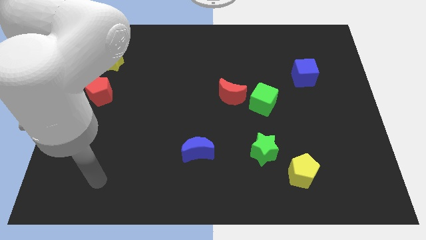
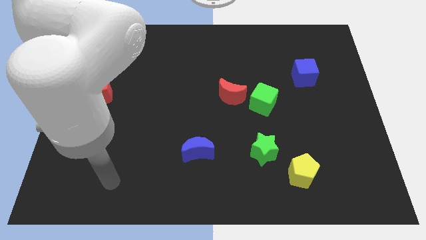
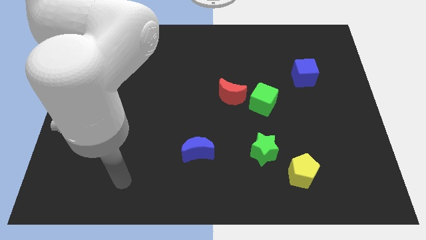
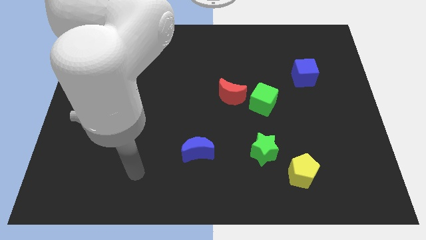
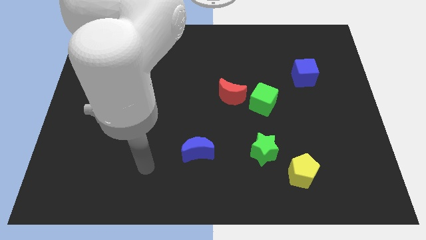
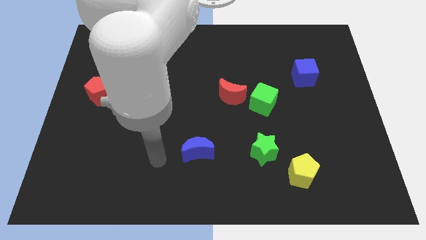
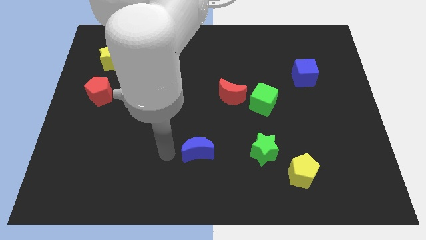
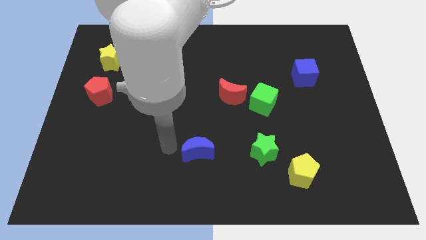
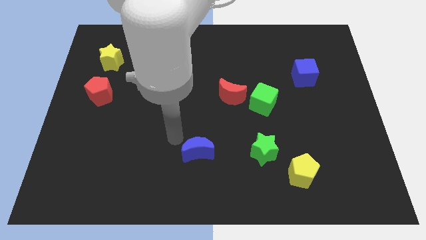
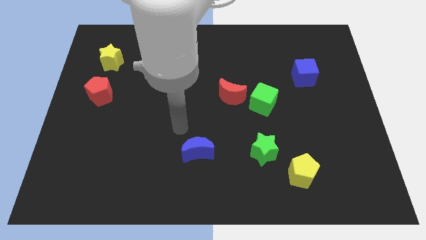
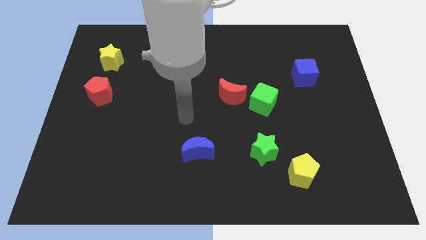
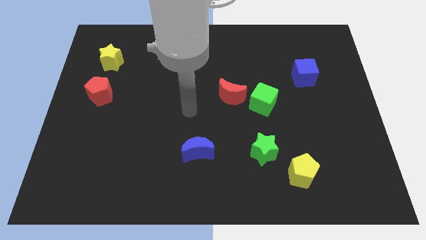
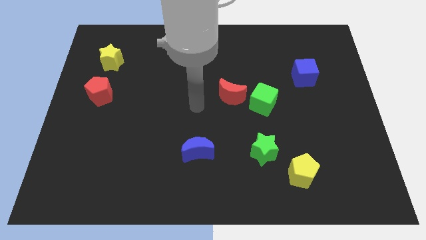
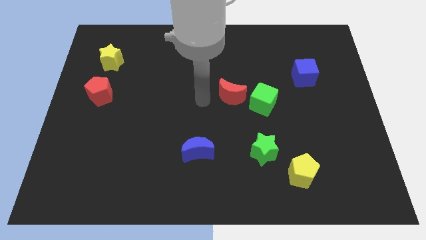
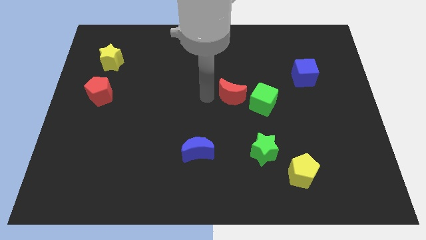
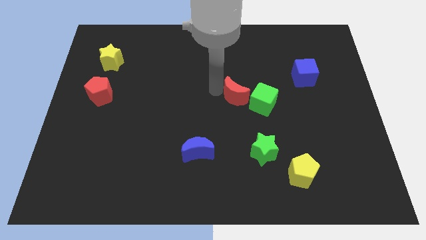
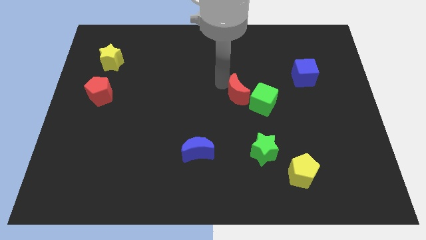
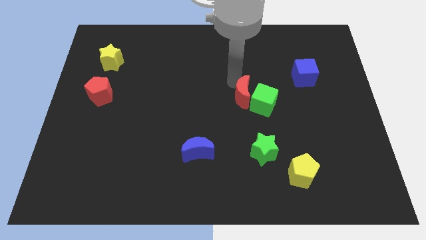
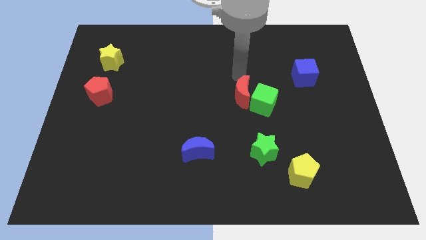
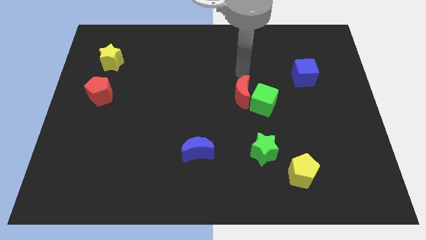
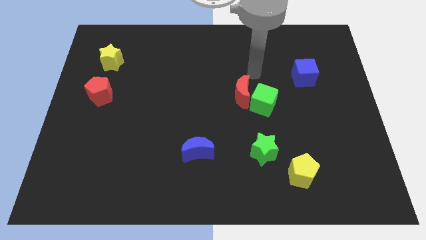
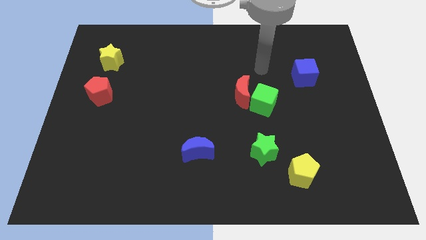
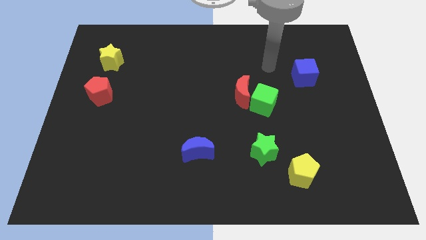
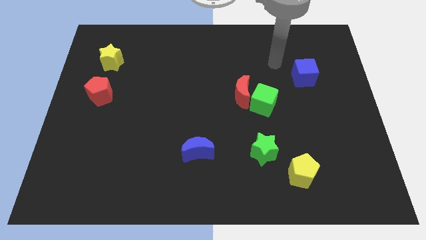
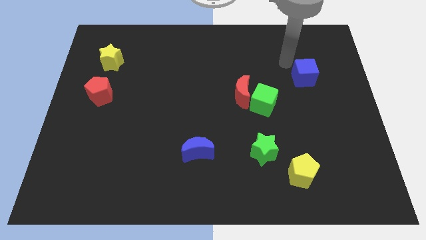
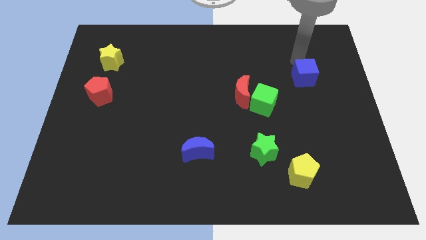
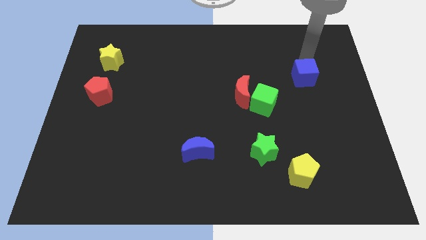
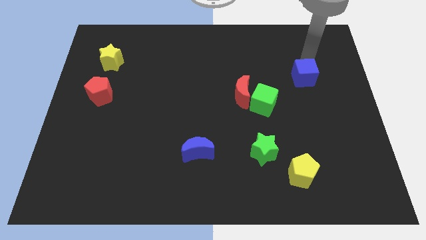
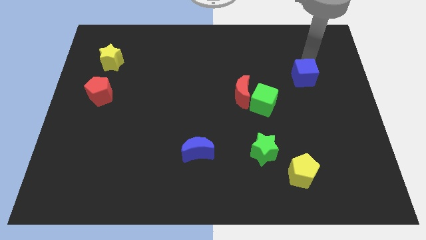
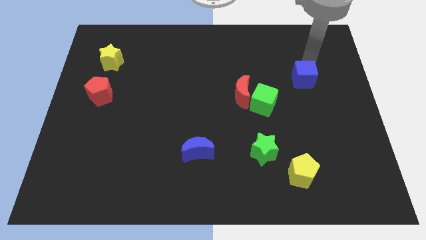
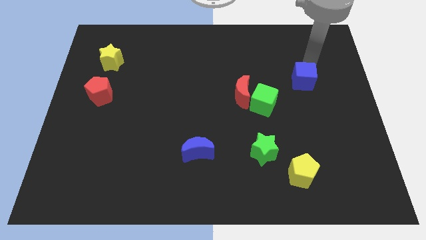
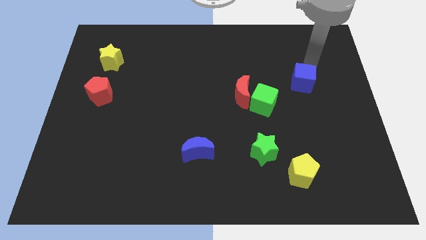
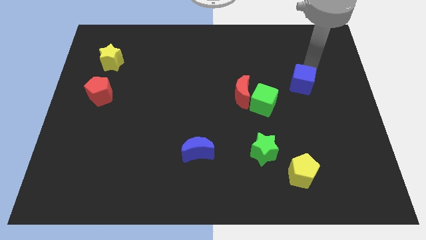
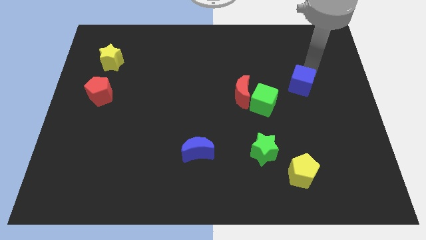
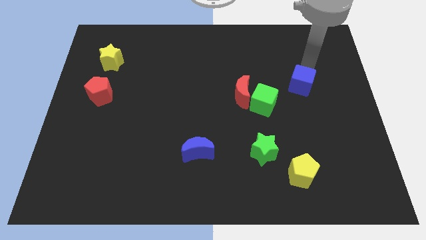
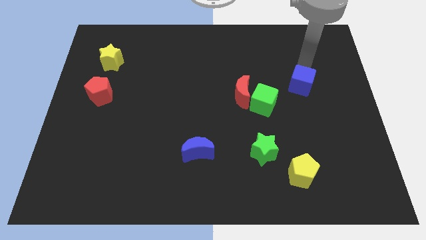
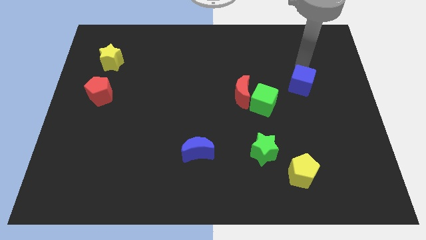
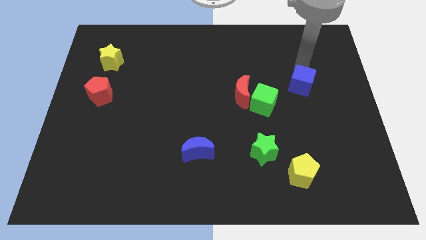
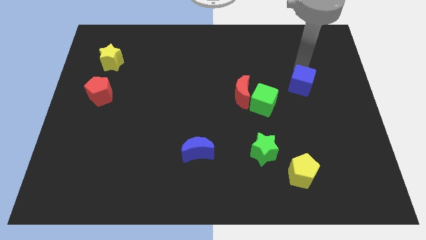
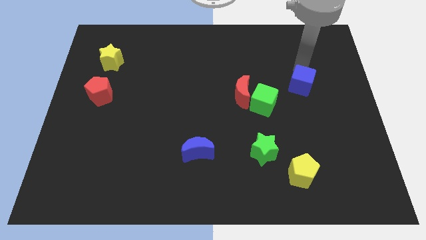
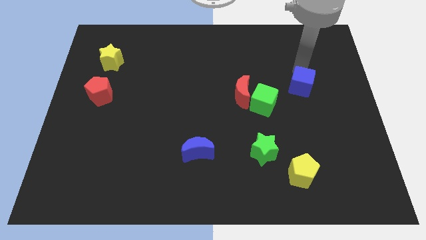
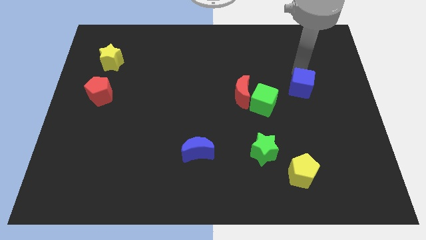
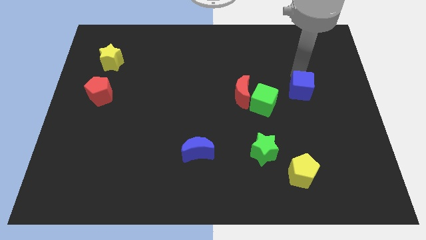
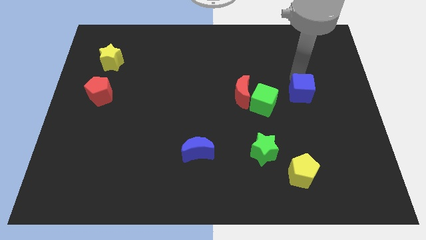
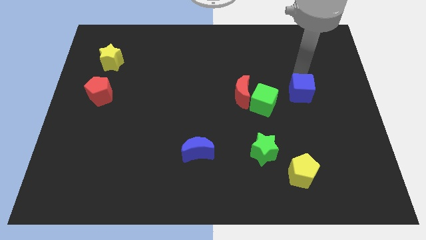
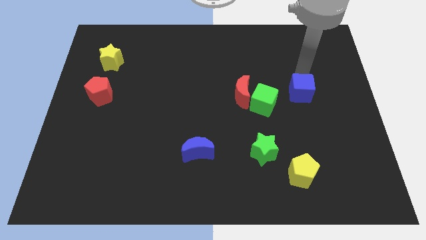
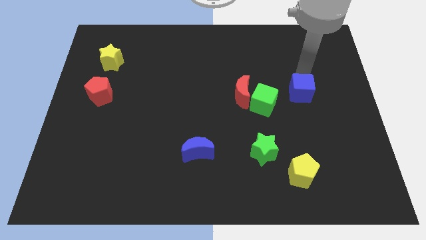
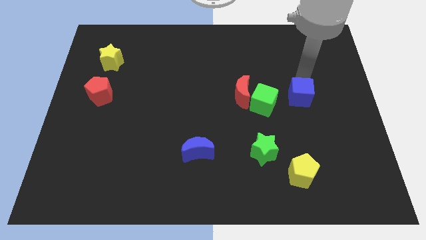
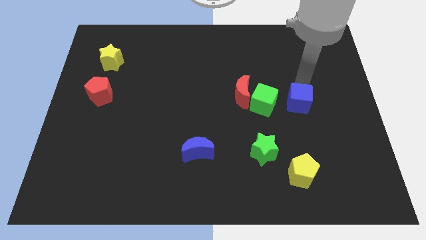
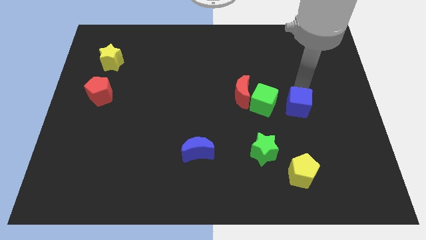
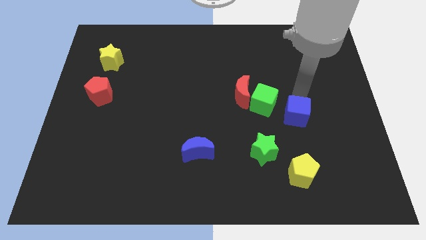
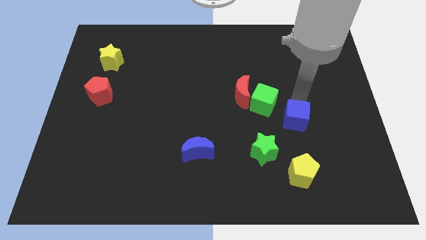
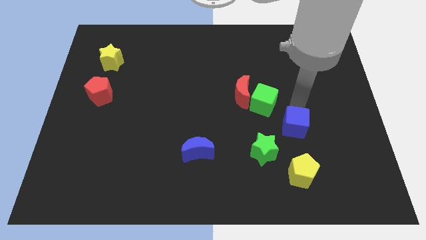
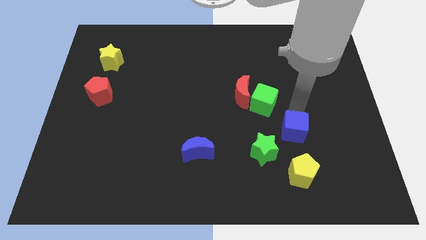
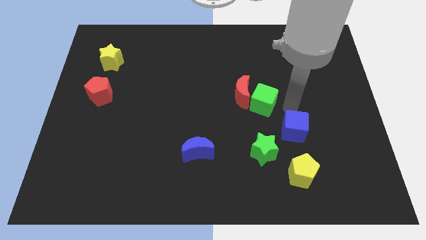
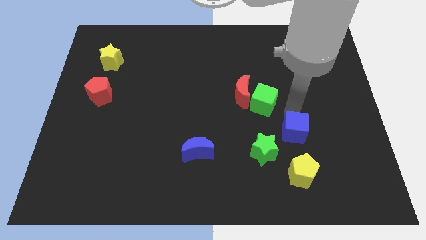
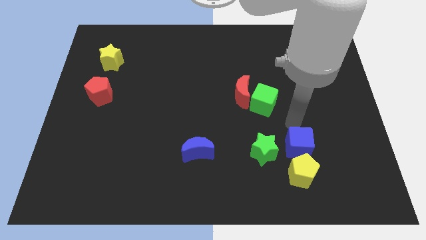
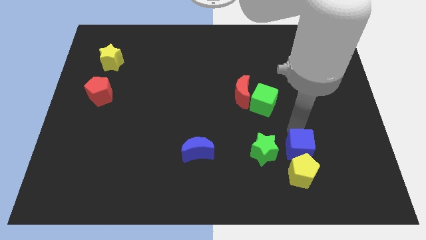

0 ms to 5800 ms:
move the blue cube to the yellow pentagon

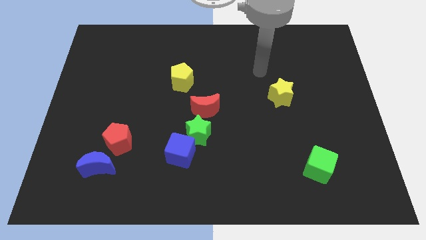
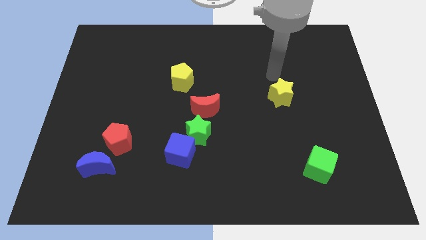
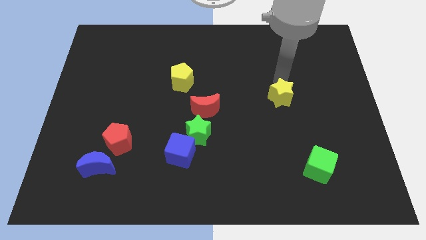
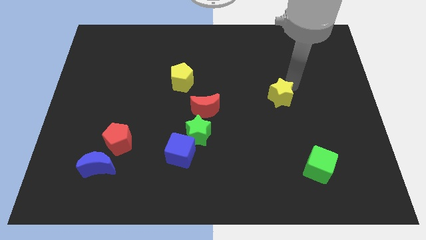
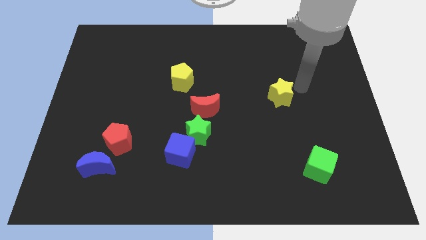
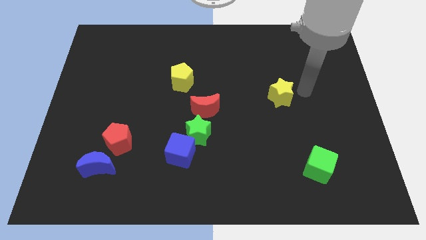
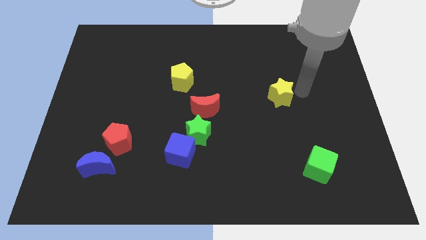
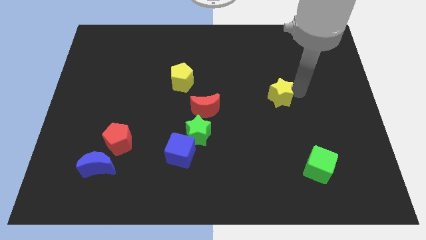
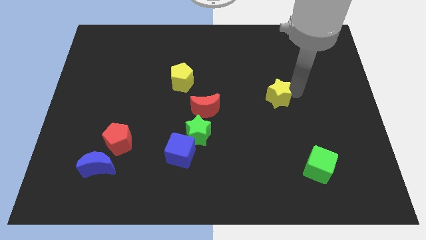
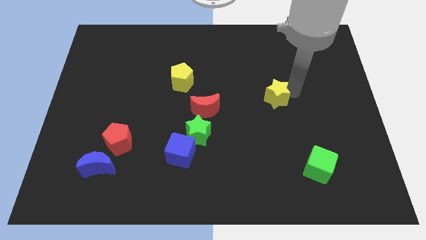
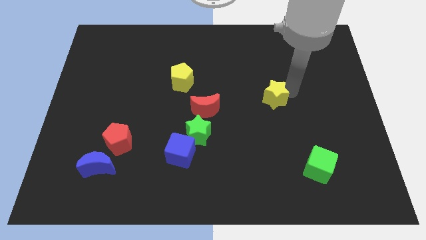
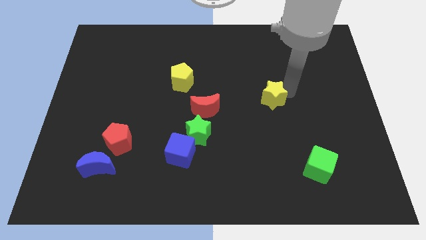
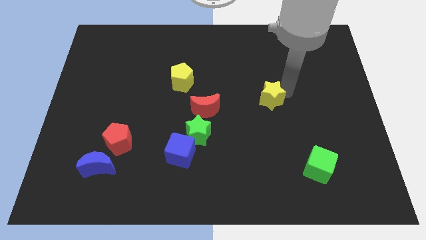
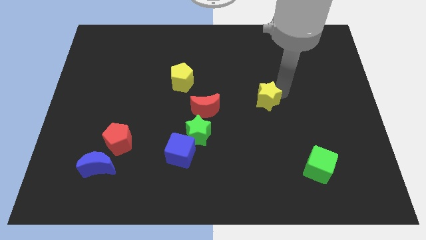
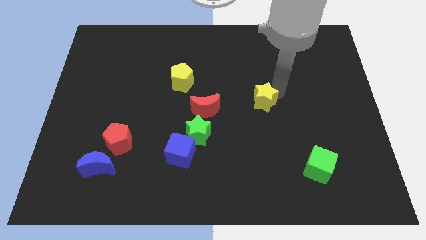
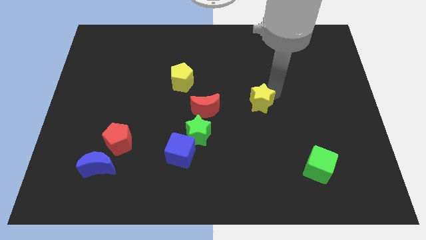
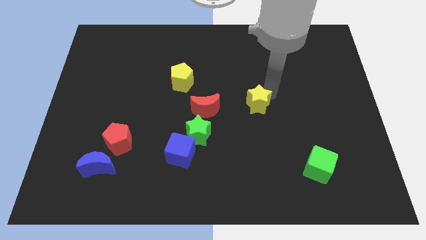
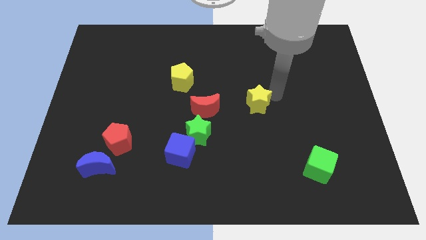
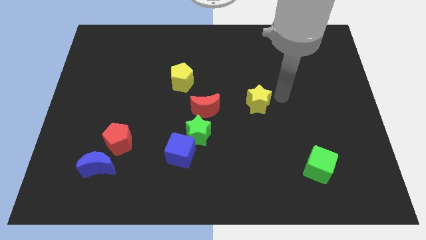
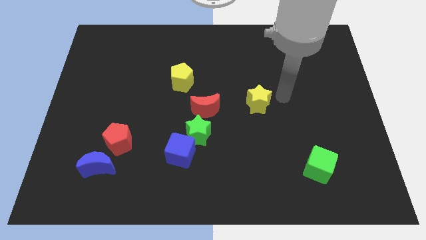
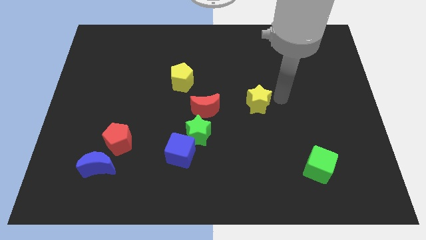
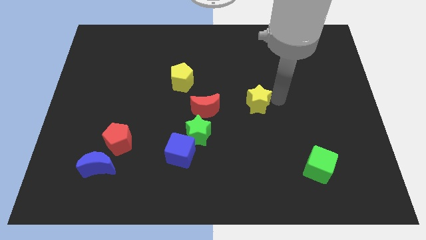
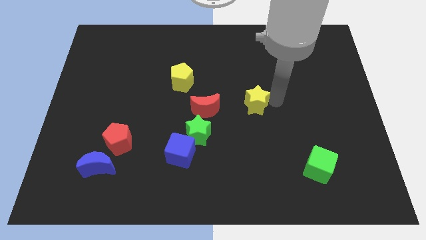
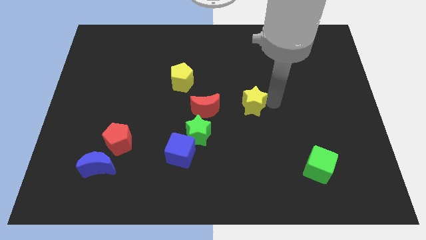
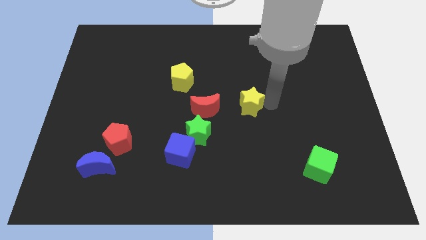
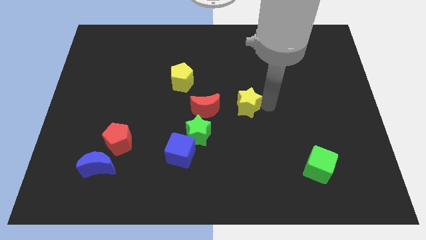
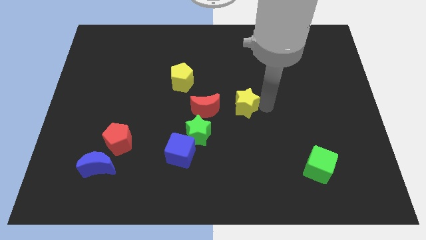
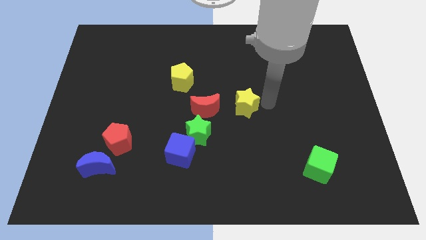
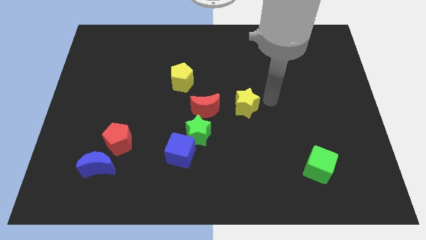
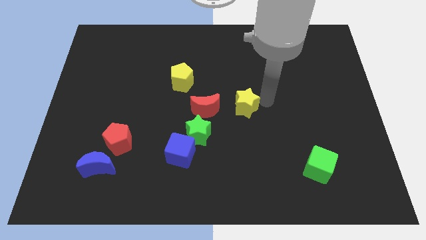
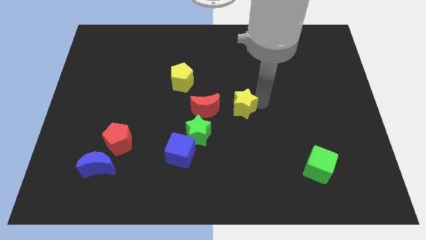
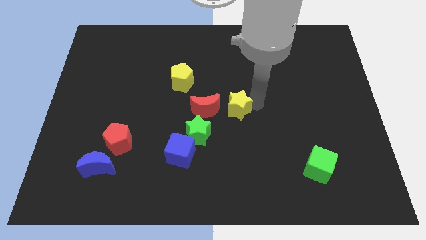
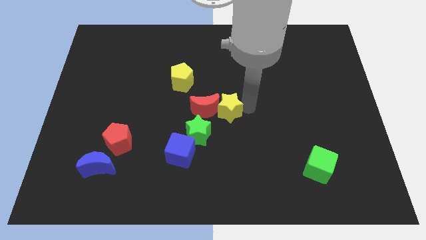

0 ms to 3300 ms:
slide the yellow star to the red moon
